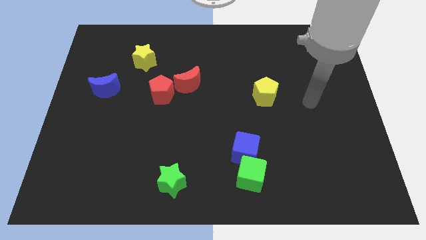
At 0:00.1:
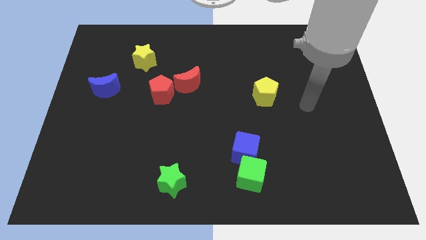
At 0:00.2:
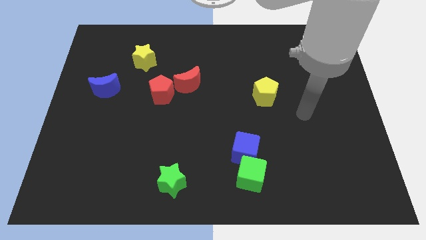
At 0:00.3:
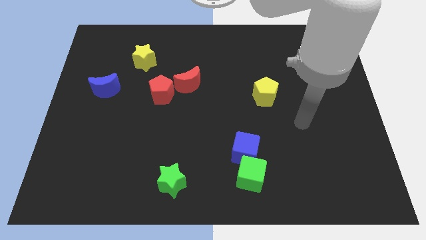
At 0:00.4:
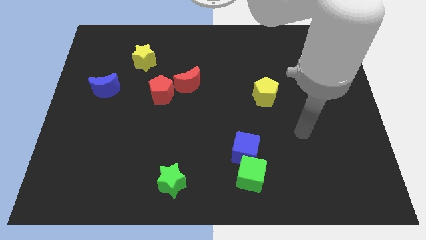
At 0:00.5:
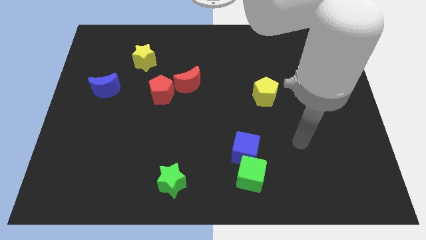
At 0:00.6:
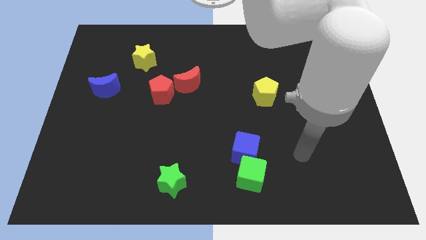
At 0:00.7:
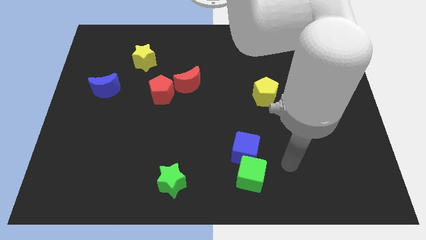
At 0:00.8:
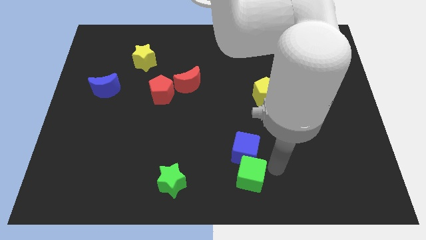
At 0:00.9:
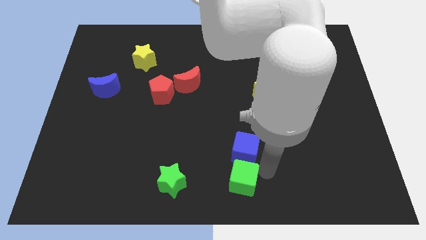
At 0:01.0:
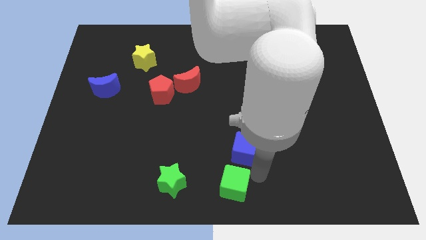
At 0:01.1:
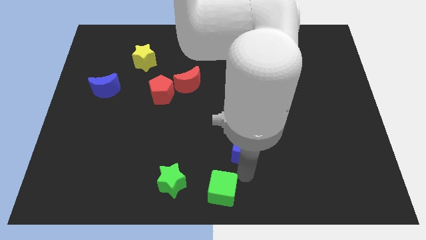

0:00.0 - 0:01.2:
pull the blue cube apart from the green cube

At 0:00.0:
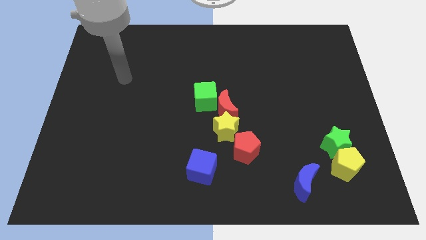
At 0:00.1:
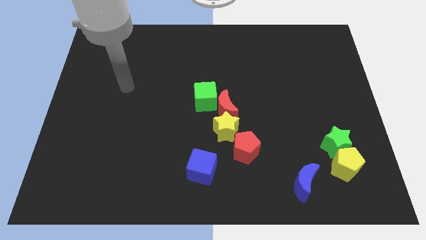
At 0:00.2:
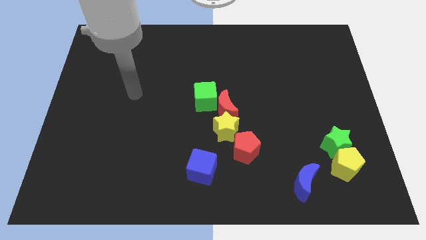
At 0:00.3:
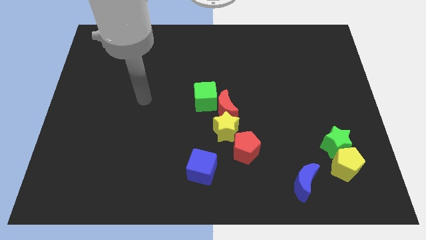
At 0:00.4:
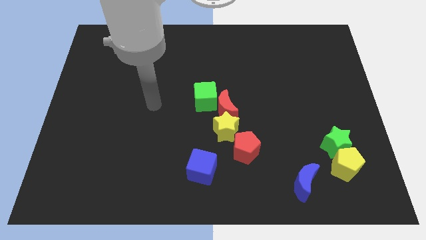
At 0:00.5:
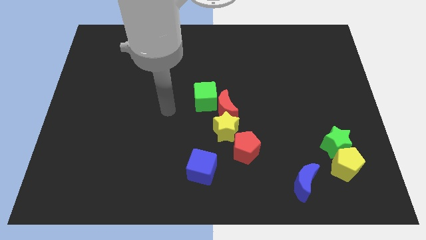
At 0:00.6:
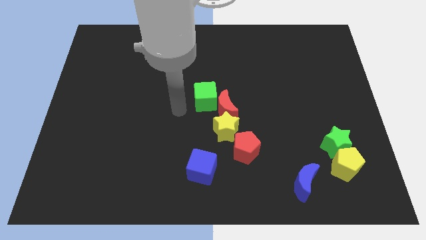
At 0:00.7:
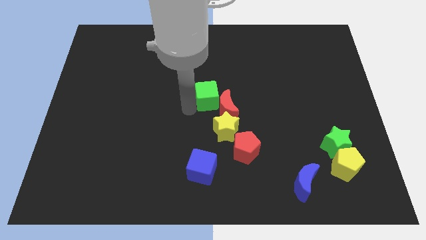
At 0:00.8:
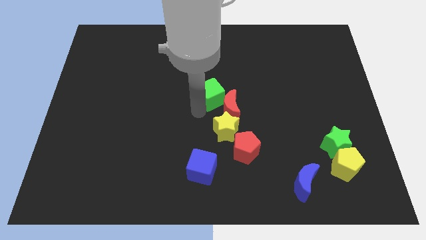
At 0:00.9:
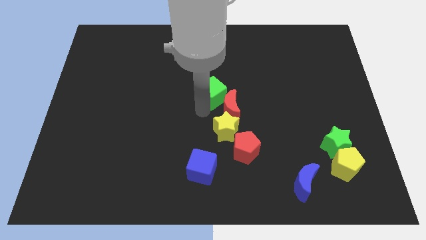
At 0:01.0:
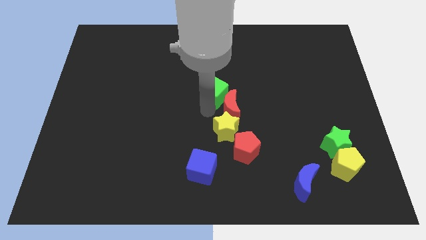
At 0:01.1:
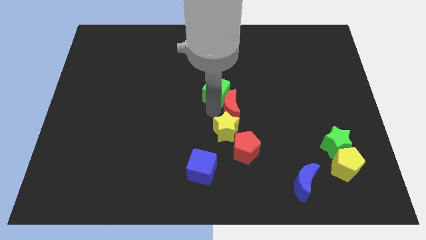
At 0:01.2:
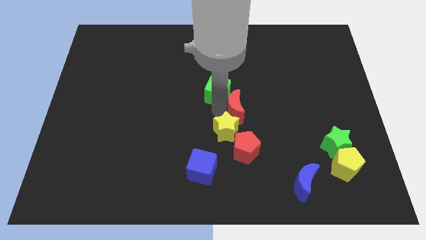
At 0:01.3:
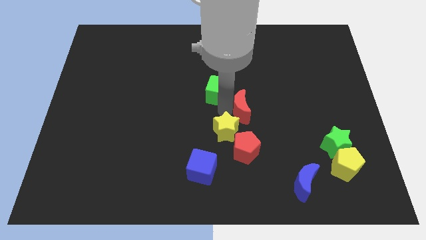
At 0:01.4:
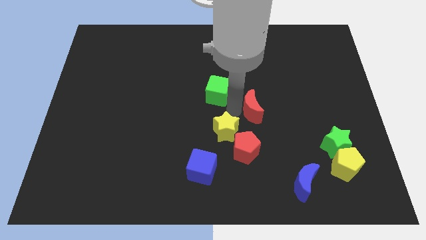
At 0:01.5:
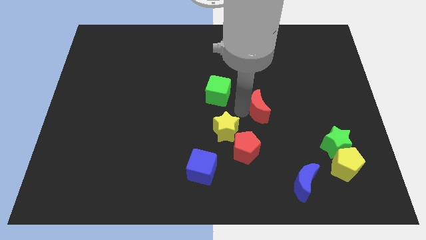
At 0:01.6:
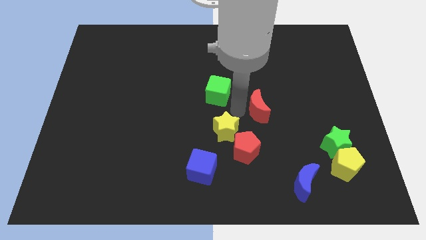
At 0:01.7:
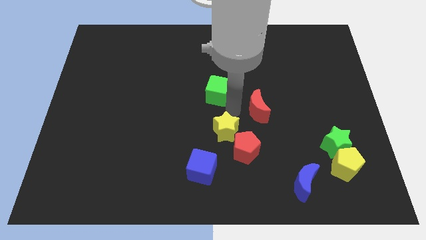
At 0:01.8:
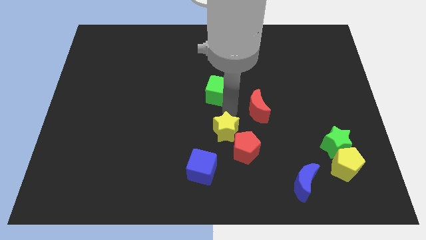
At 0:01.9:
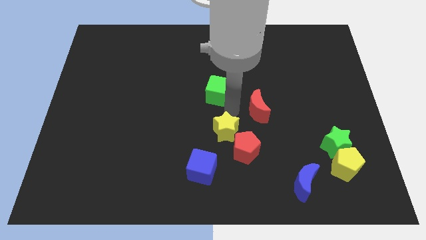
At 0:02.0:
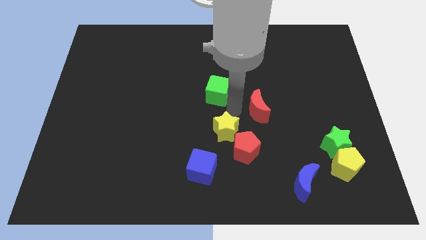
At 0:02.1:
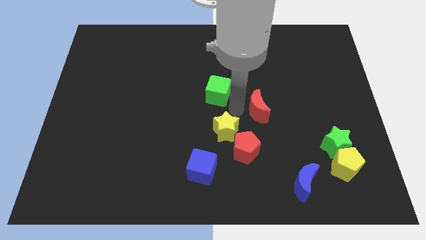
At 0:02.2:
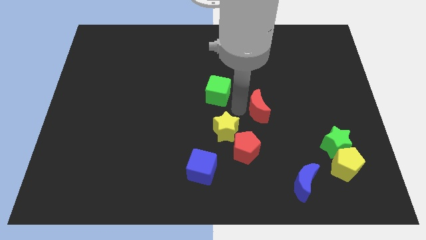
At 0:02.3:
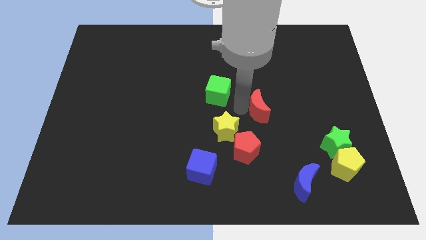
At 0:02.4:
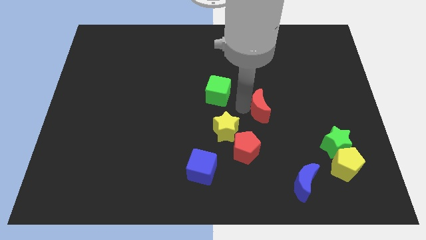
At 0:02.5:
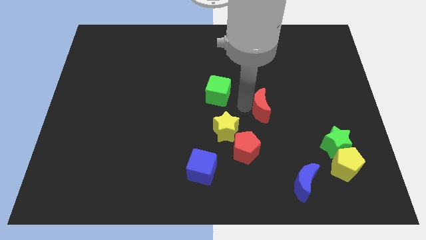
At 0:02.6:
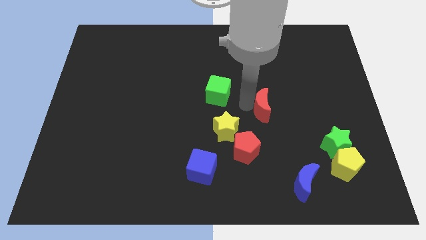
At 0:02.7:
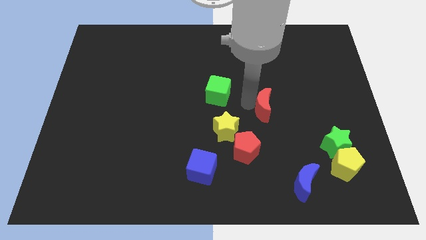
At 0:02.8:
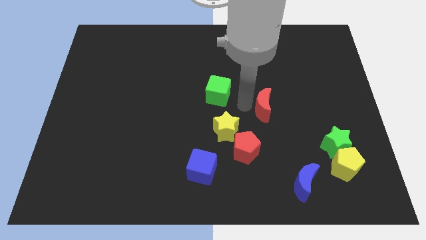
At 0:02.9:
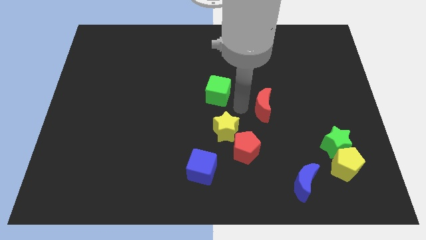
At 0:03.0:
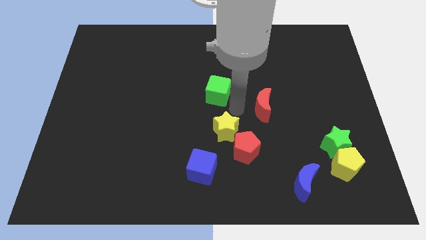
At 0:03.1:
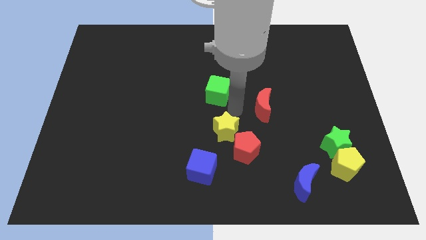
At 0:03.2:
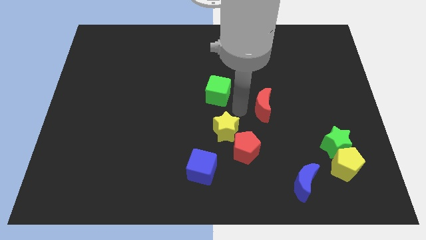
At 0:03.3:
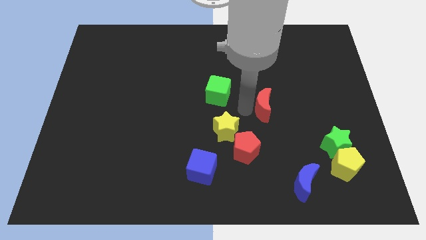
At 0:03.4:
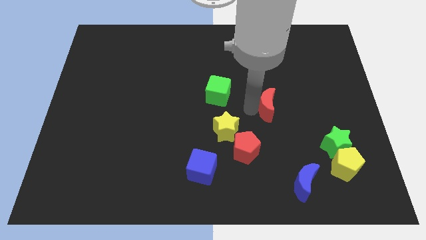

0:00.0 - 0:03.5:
move the red moon away from the yellow star and green cube

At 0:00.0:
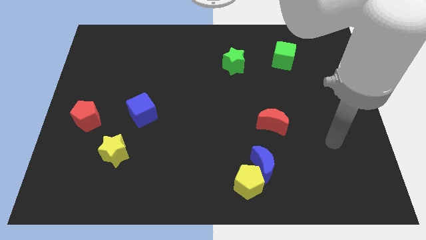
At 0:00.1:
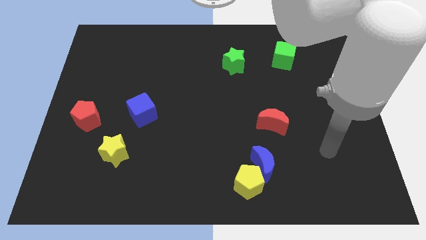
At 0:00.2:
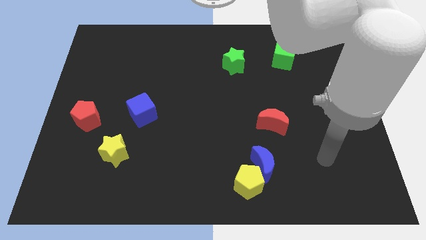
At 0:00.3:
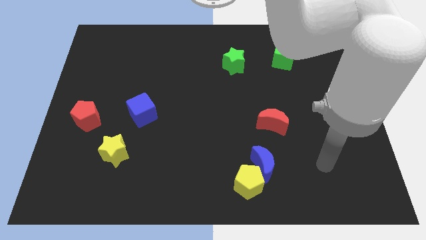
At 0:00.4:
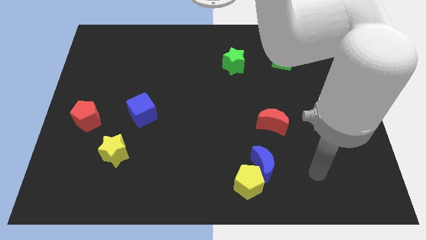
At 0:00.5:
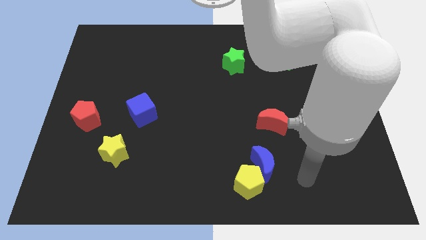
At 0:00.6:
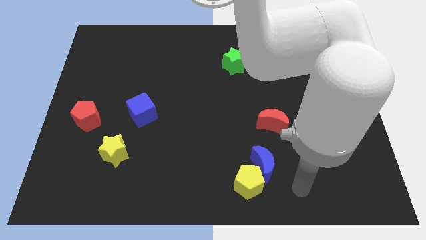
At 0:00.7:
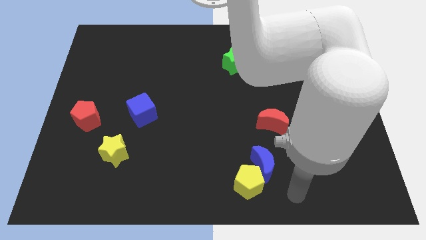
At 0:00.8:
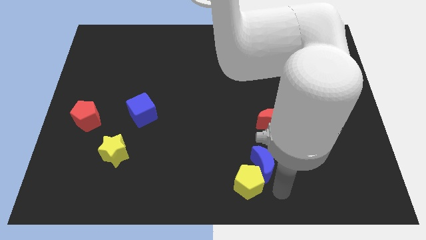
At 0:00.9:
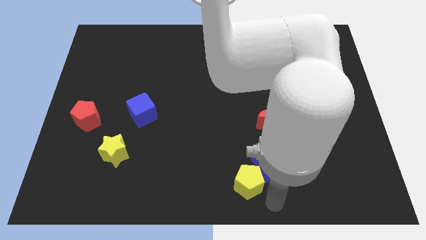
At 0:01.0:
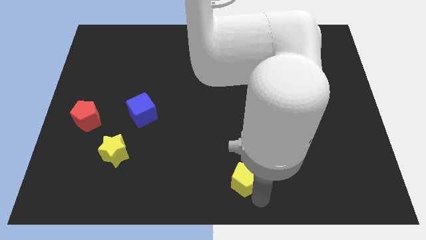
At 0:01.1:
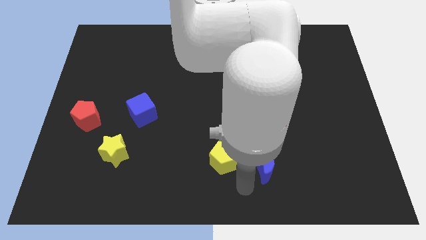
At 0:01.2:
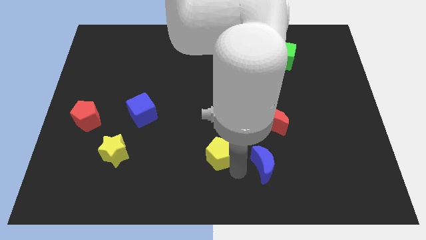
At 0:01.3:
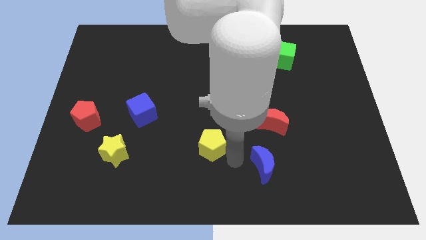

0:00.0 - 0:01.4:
separate the blue moon from the yellow pentagon

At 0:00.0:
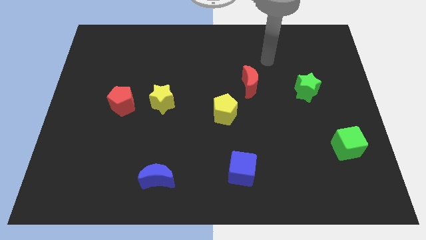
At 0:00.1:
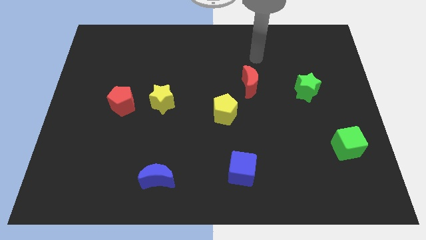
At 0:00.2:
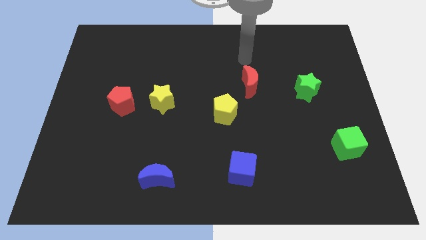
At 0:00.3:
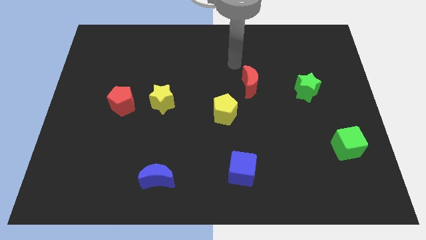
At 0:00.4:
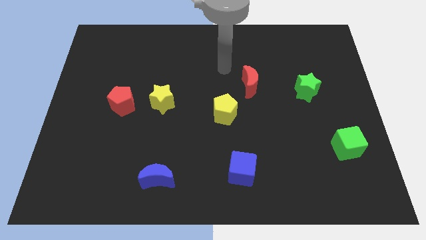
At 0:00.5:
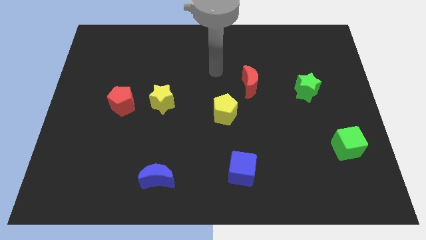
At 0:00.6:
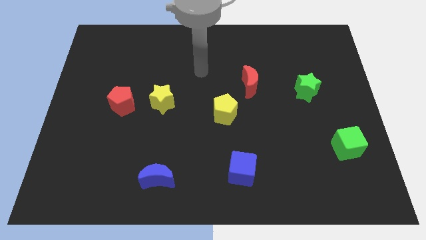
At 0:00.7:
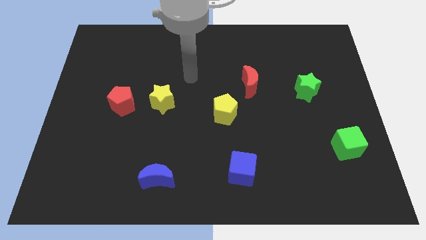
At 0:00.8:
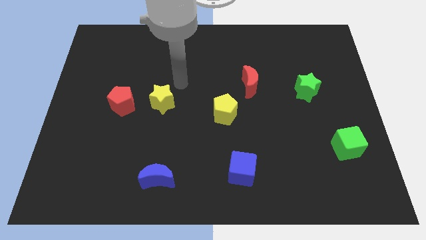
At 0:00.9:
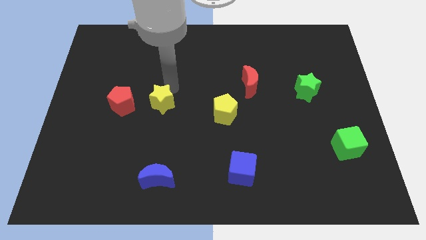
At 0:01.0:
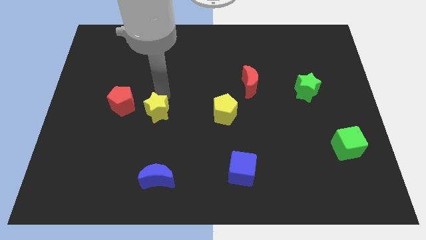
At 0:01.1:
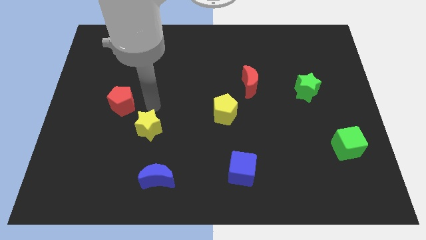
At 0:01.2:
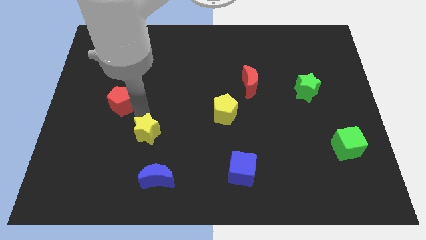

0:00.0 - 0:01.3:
separate the red pentagon from the yellow star

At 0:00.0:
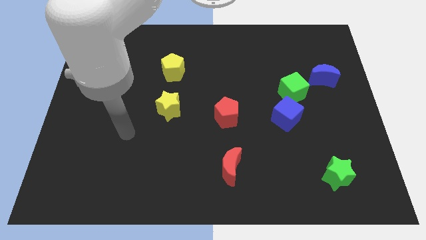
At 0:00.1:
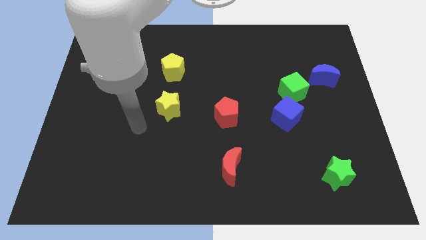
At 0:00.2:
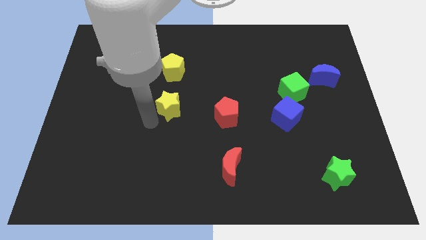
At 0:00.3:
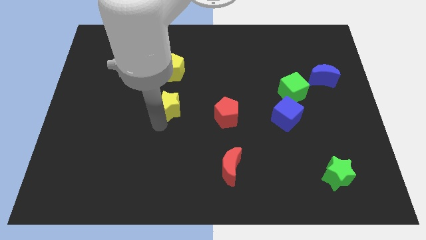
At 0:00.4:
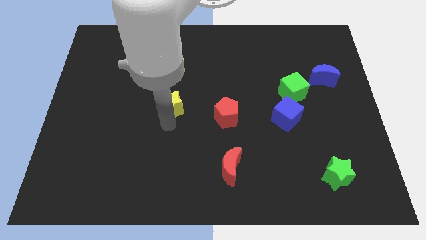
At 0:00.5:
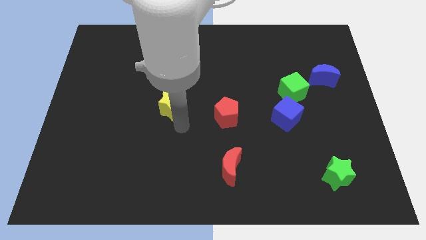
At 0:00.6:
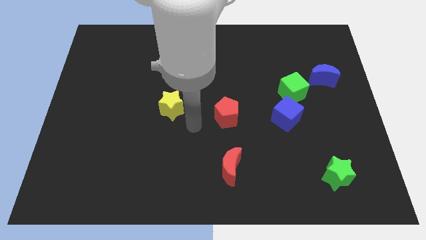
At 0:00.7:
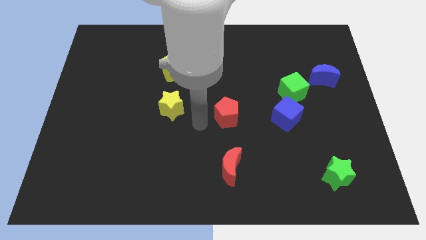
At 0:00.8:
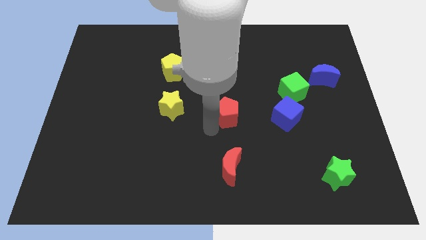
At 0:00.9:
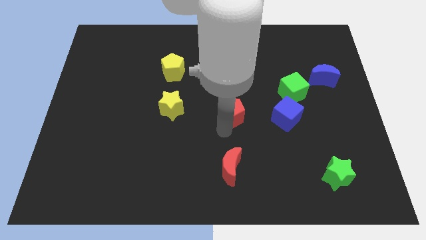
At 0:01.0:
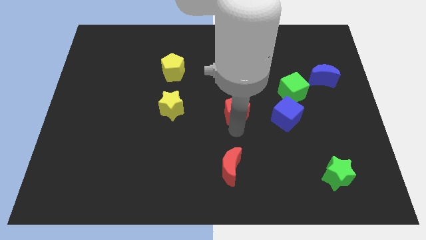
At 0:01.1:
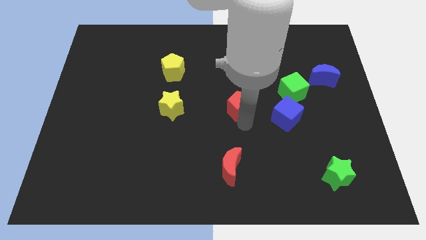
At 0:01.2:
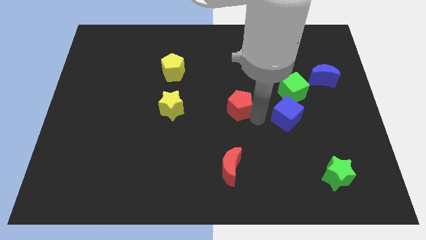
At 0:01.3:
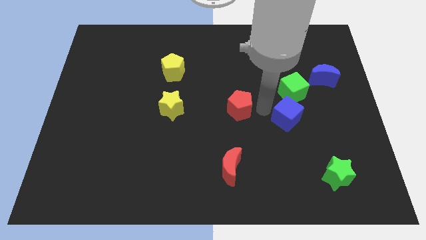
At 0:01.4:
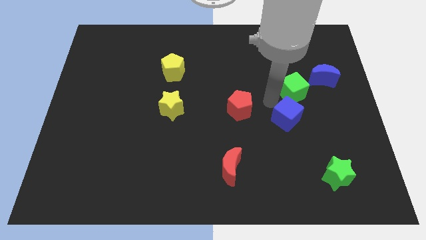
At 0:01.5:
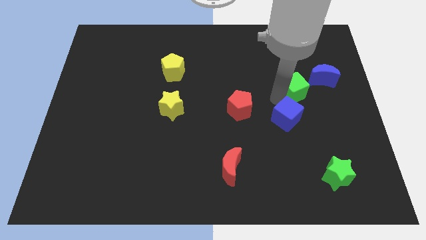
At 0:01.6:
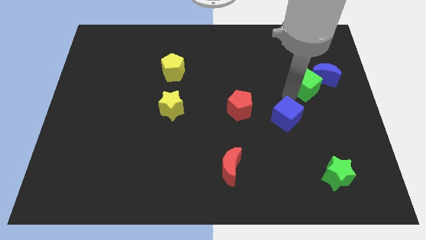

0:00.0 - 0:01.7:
separate the blue cube from the green cube

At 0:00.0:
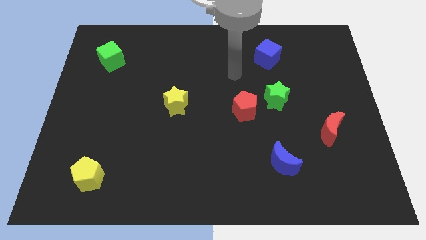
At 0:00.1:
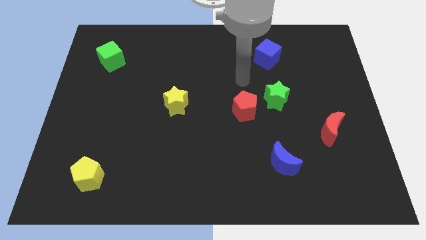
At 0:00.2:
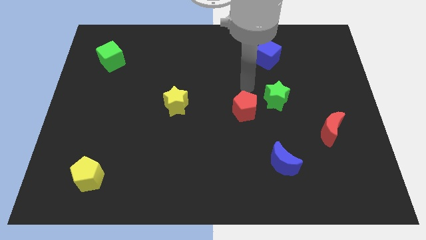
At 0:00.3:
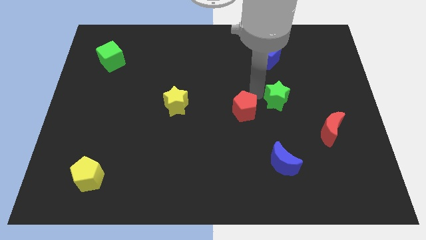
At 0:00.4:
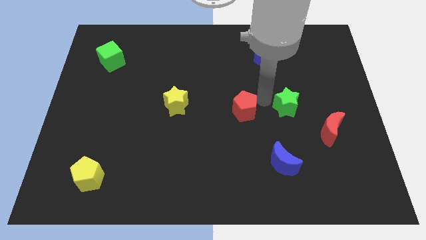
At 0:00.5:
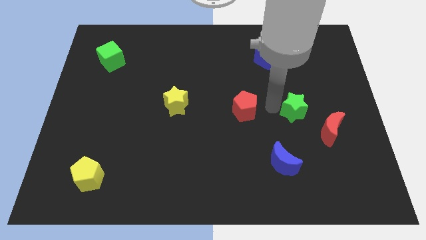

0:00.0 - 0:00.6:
separate the red pentagon from the green star
